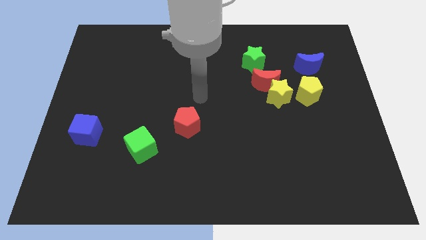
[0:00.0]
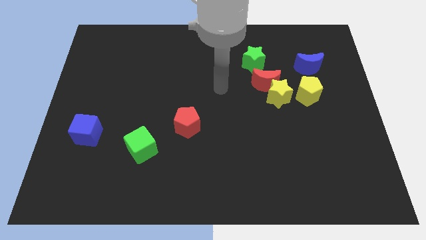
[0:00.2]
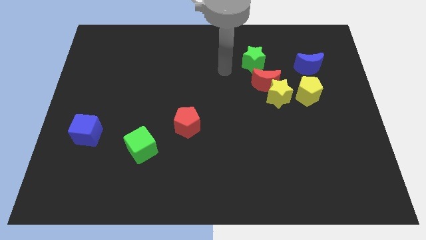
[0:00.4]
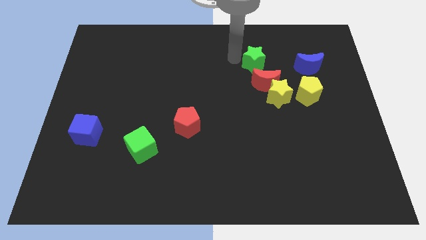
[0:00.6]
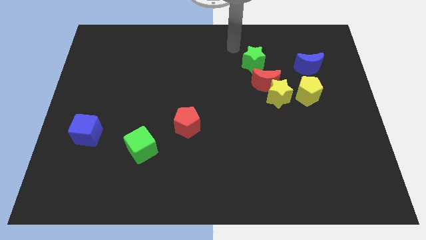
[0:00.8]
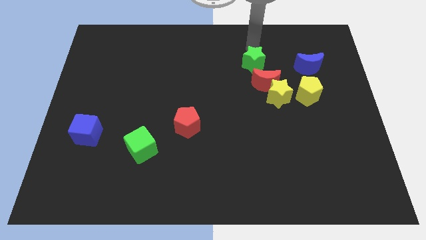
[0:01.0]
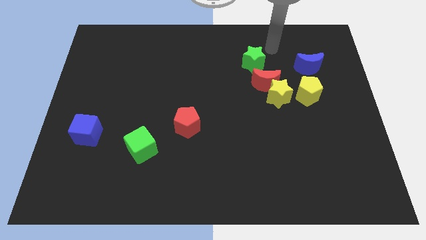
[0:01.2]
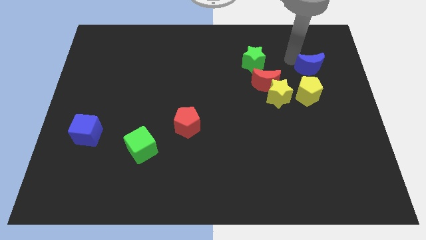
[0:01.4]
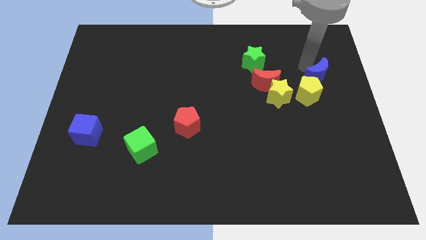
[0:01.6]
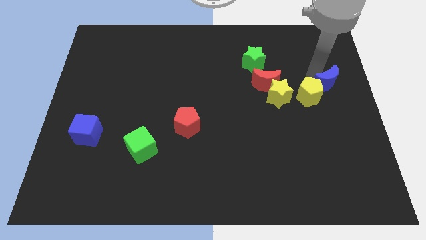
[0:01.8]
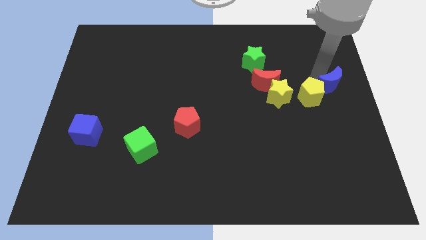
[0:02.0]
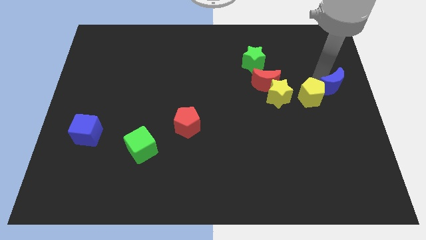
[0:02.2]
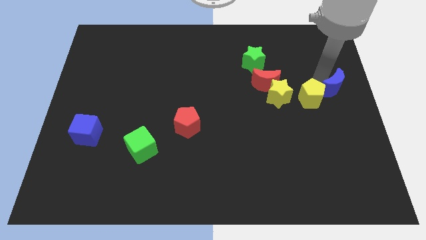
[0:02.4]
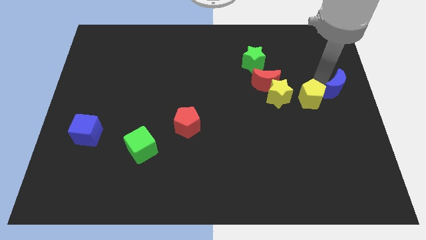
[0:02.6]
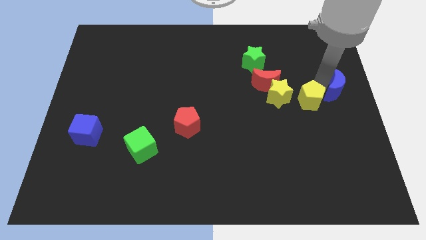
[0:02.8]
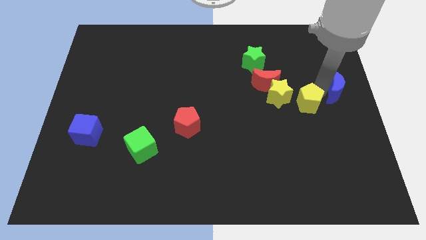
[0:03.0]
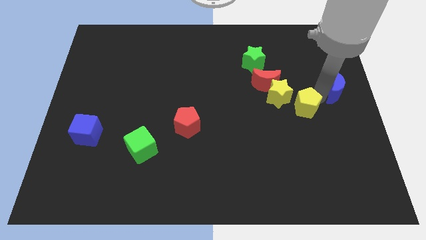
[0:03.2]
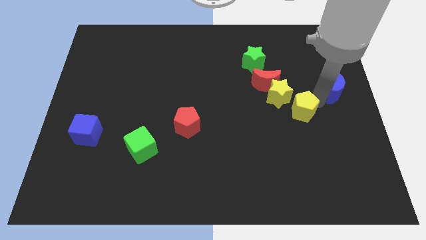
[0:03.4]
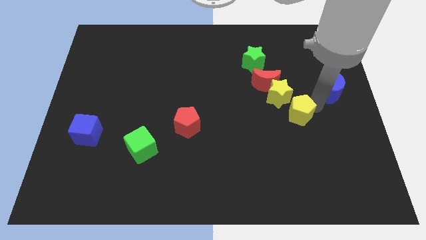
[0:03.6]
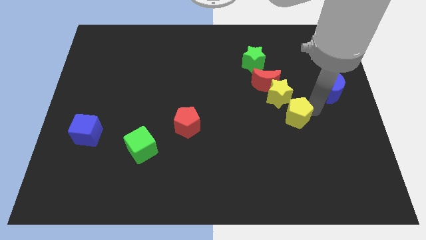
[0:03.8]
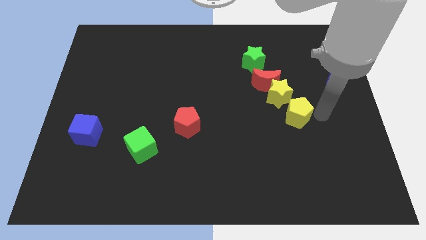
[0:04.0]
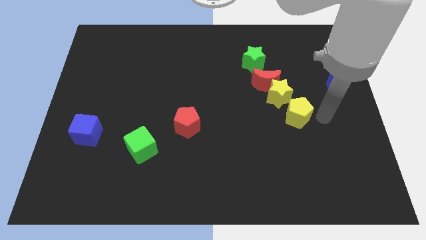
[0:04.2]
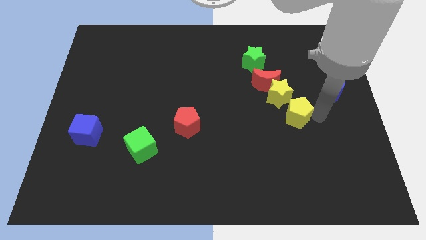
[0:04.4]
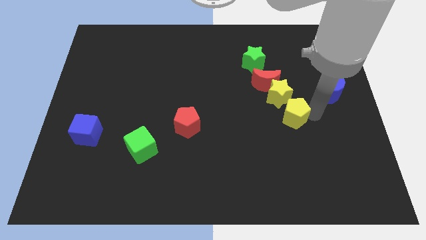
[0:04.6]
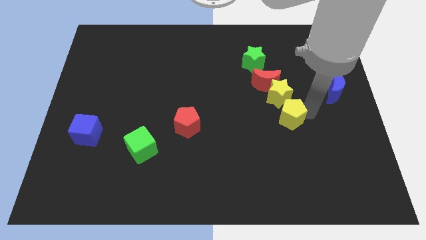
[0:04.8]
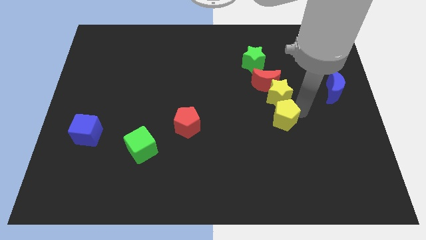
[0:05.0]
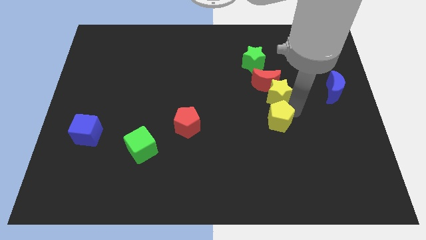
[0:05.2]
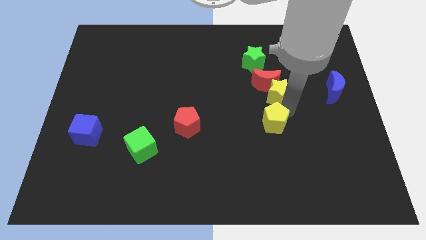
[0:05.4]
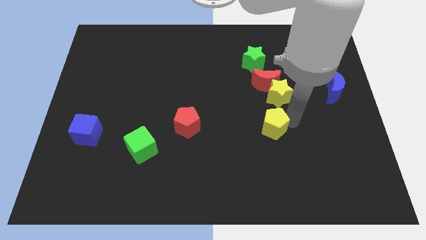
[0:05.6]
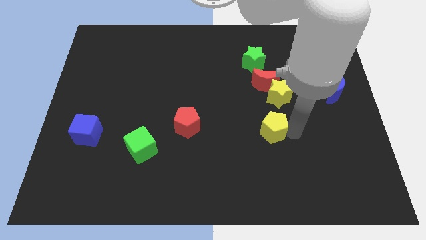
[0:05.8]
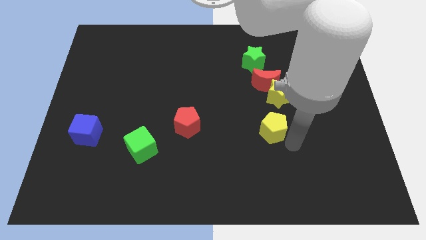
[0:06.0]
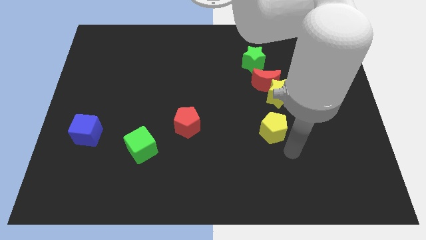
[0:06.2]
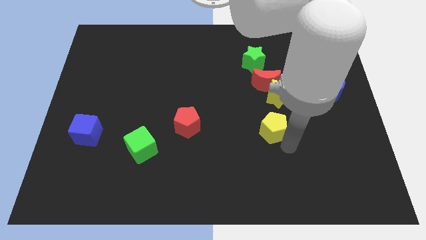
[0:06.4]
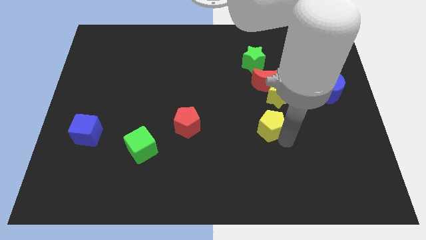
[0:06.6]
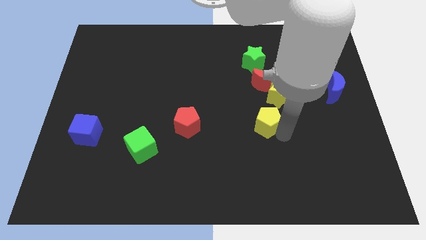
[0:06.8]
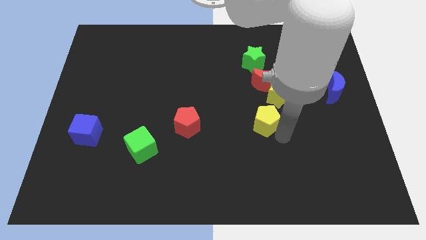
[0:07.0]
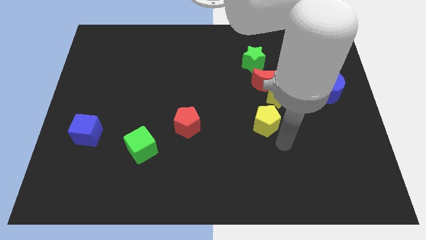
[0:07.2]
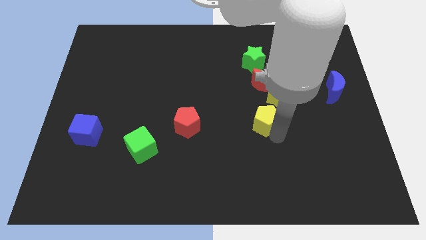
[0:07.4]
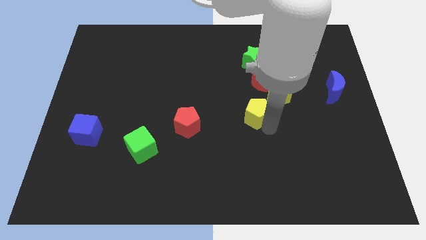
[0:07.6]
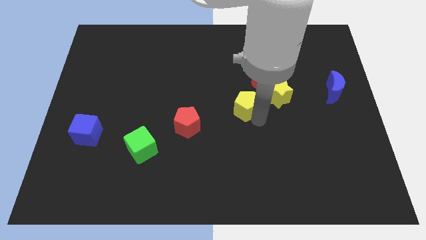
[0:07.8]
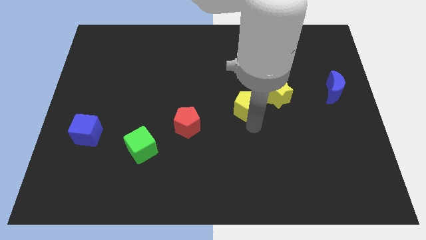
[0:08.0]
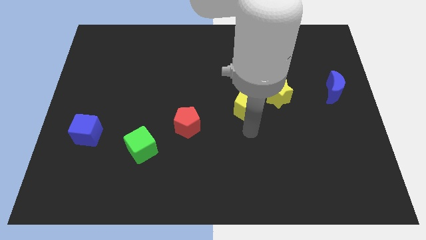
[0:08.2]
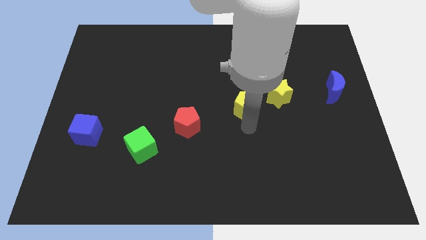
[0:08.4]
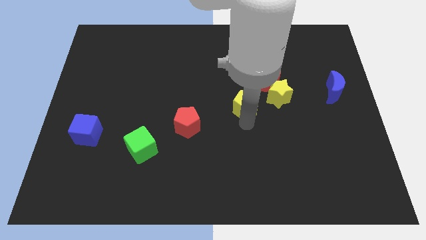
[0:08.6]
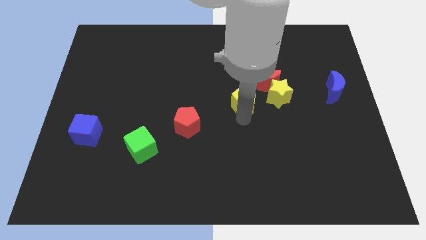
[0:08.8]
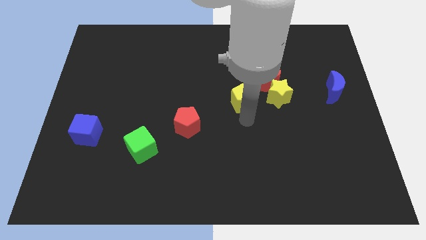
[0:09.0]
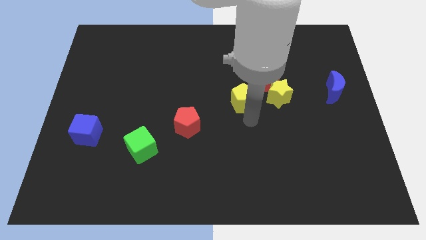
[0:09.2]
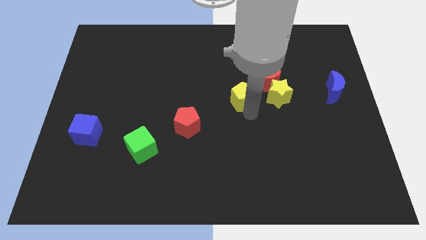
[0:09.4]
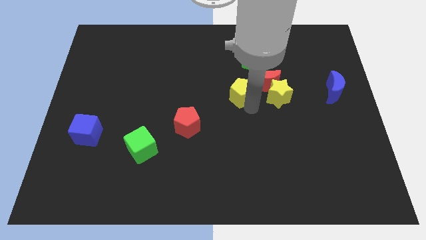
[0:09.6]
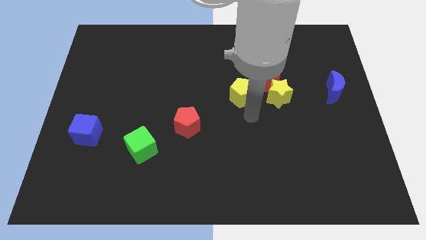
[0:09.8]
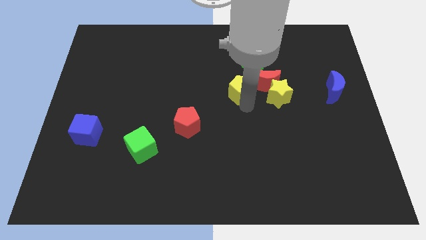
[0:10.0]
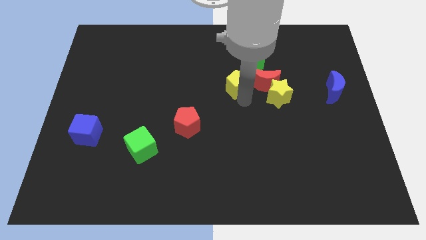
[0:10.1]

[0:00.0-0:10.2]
put the yellow pentagon to the bottom left side of the green star

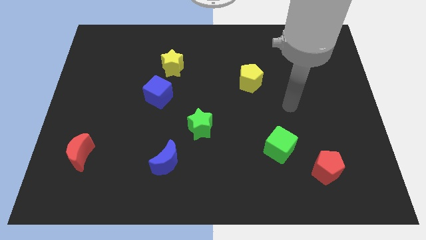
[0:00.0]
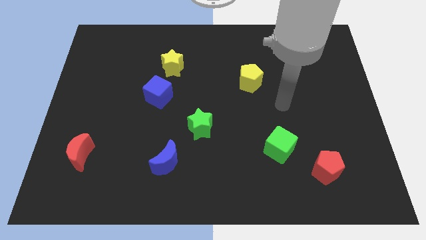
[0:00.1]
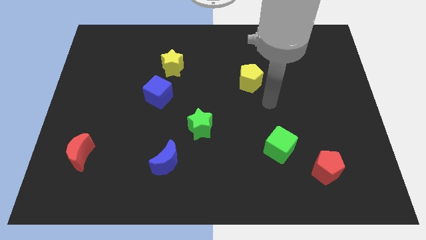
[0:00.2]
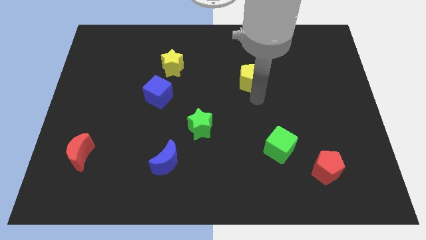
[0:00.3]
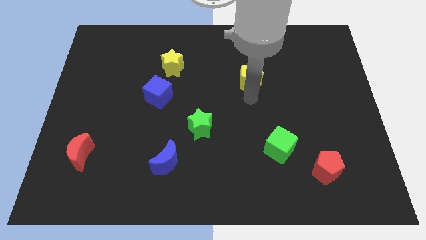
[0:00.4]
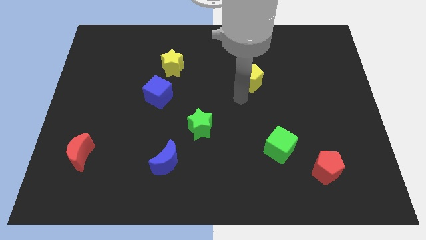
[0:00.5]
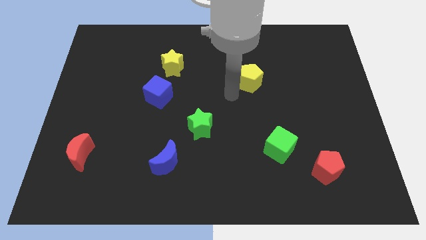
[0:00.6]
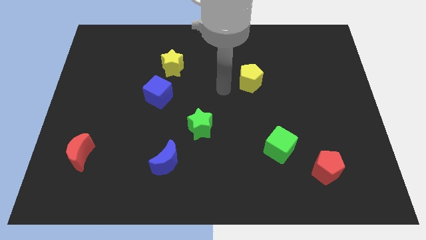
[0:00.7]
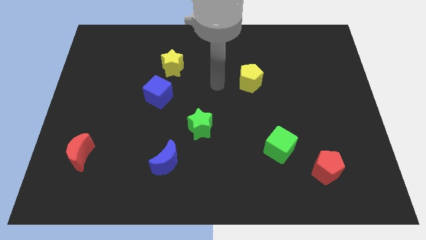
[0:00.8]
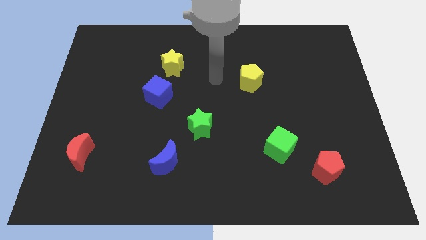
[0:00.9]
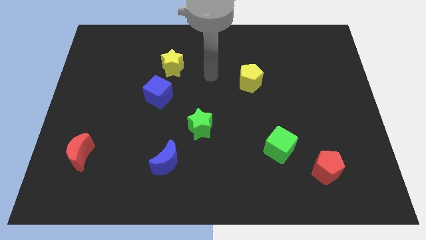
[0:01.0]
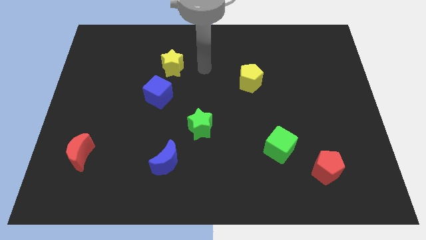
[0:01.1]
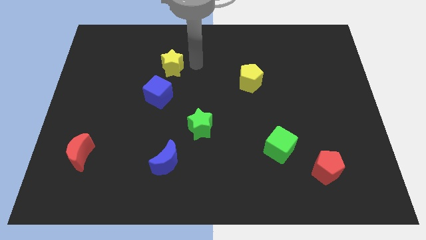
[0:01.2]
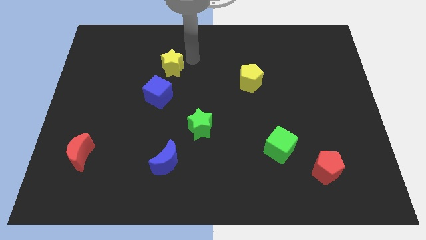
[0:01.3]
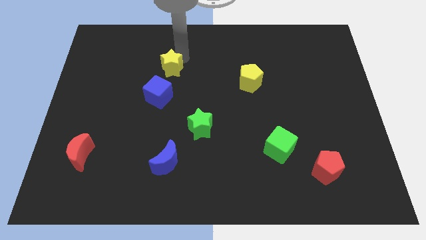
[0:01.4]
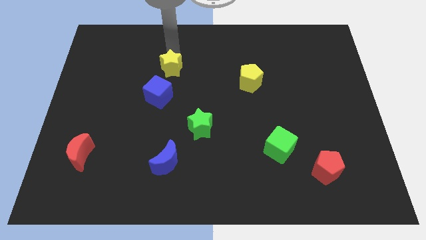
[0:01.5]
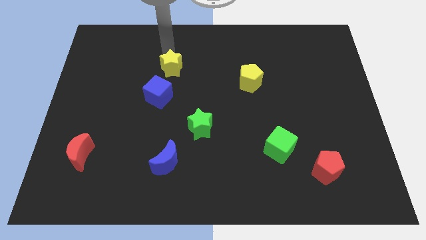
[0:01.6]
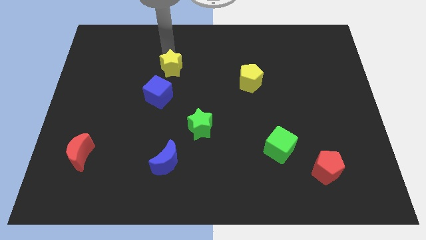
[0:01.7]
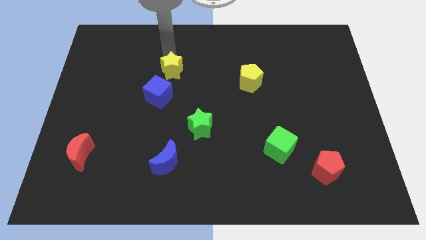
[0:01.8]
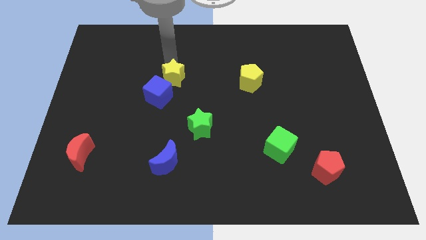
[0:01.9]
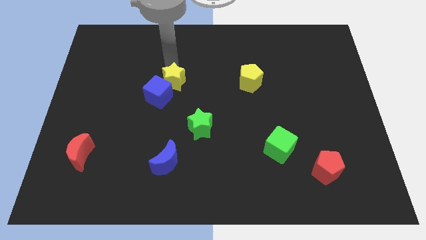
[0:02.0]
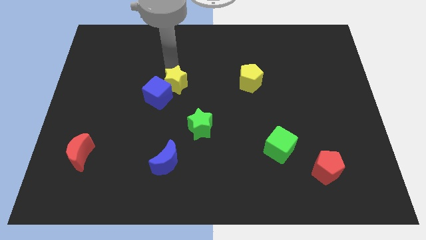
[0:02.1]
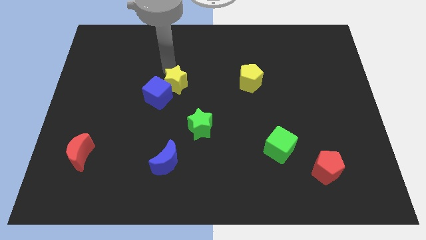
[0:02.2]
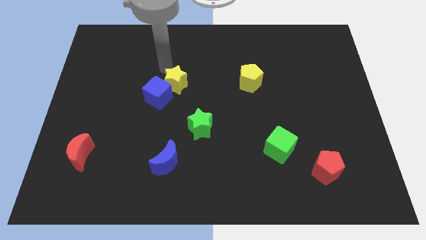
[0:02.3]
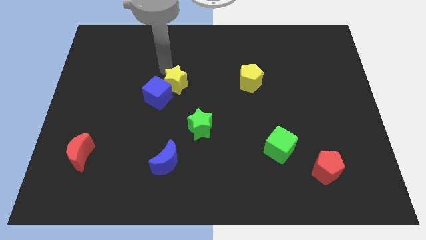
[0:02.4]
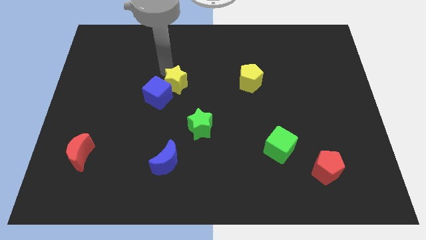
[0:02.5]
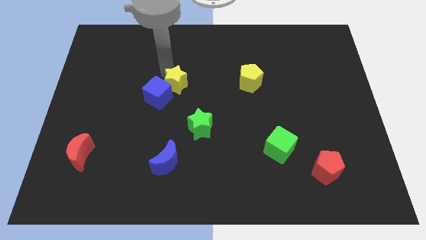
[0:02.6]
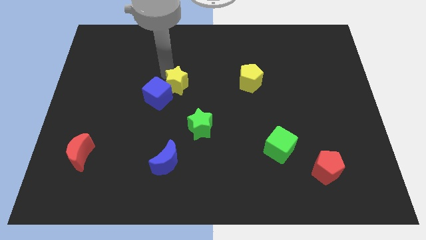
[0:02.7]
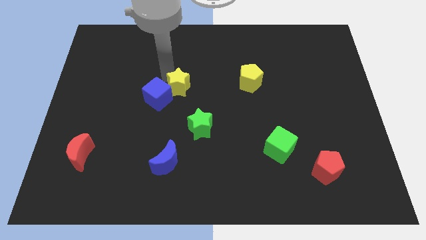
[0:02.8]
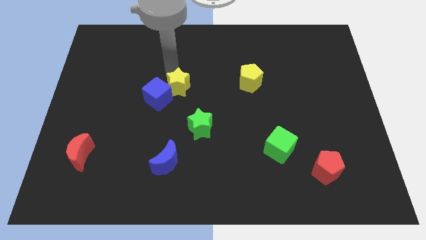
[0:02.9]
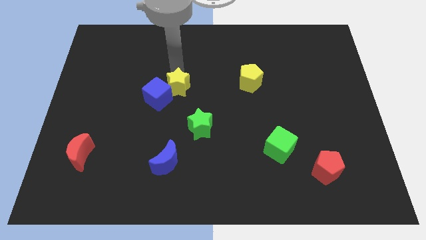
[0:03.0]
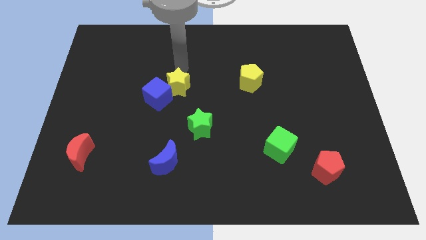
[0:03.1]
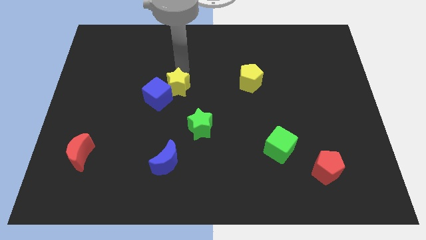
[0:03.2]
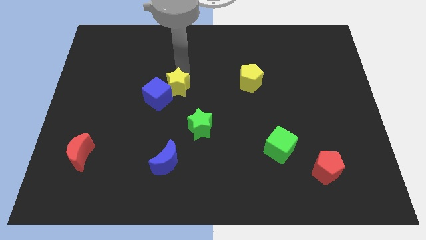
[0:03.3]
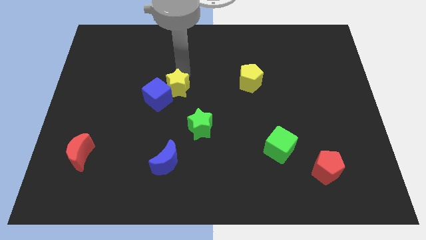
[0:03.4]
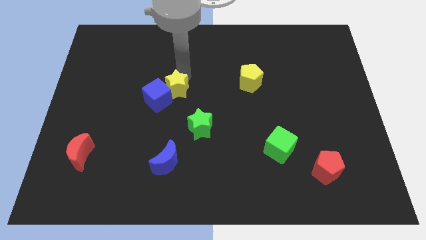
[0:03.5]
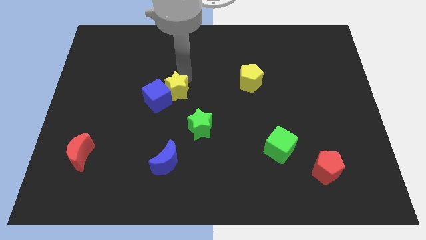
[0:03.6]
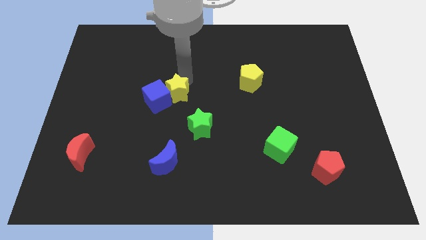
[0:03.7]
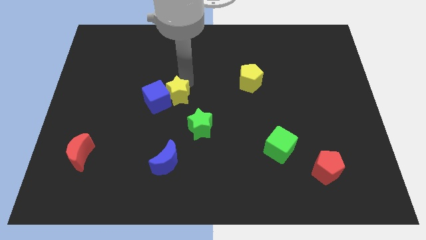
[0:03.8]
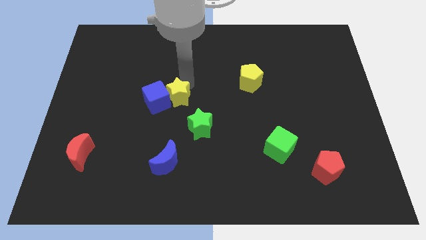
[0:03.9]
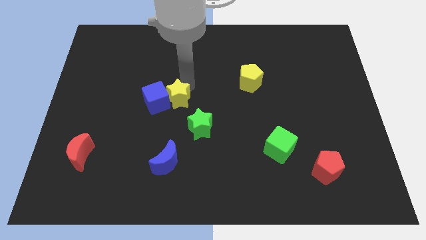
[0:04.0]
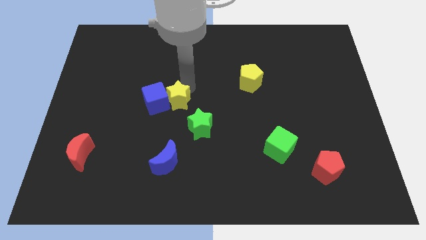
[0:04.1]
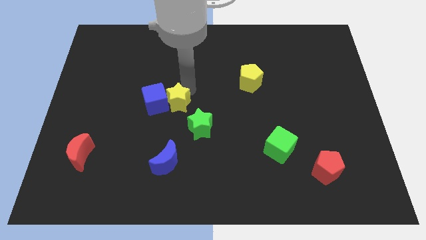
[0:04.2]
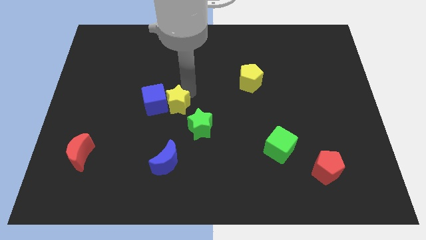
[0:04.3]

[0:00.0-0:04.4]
put the yellow star to the top side of the blue moon
